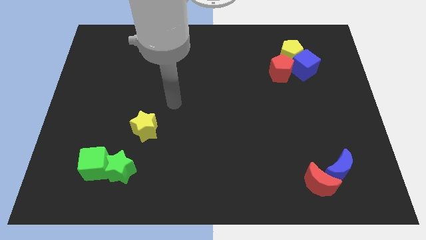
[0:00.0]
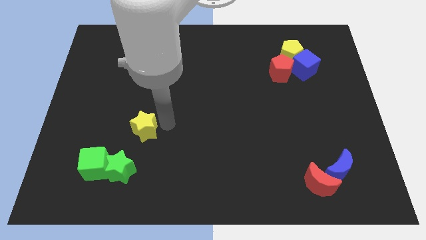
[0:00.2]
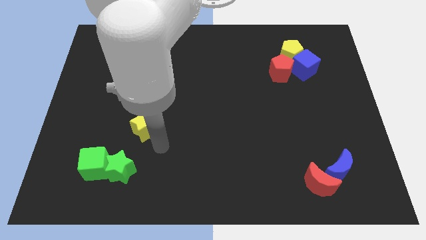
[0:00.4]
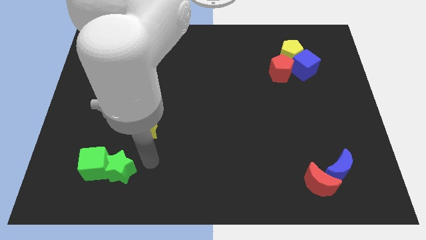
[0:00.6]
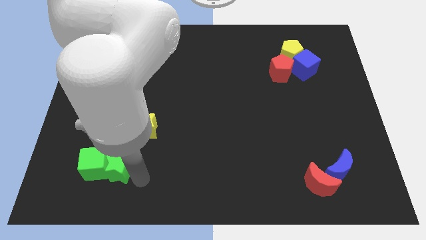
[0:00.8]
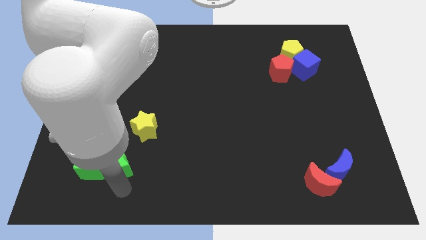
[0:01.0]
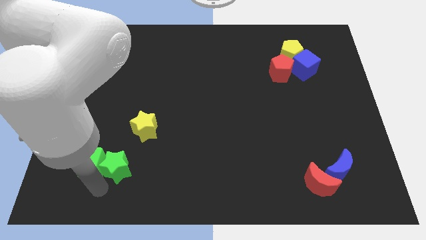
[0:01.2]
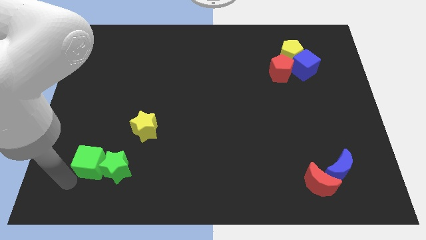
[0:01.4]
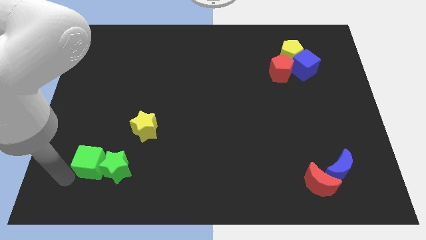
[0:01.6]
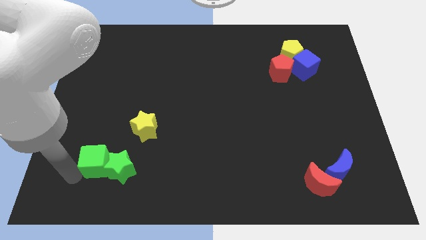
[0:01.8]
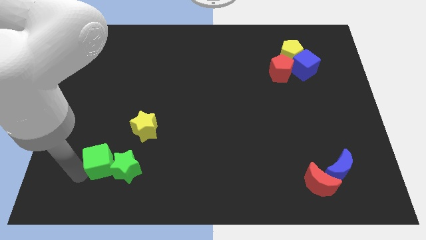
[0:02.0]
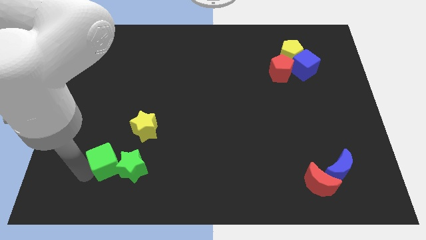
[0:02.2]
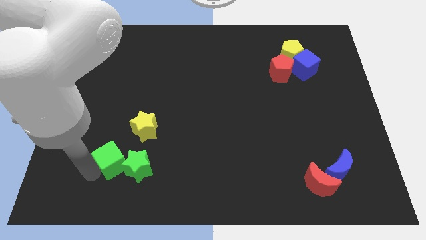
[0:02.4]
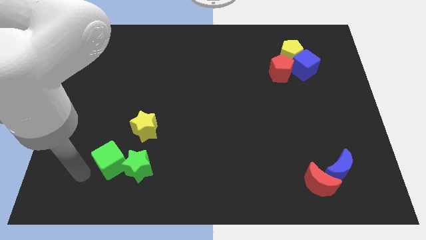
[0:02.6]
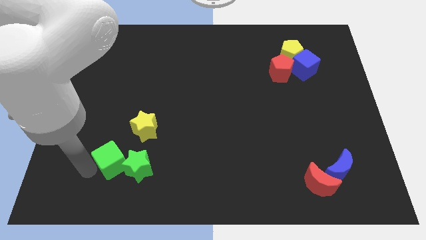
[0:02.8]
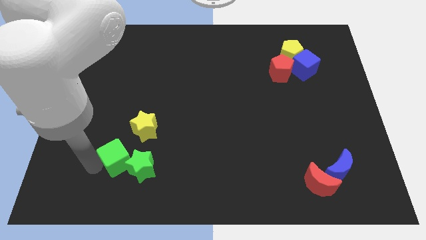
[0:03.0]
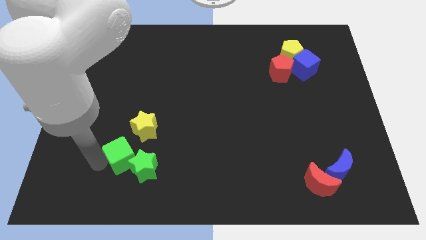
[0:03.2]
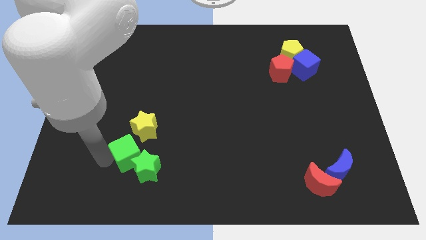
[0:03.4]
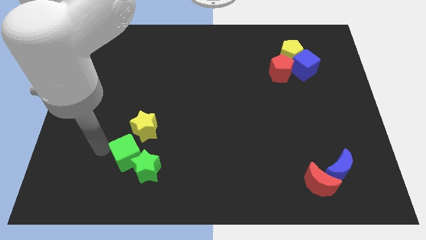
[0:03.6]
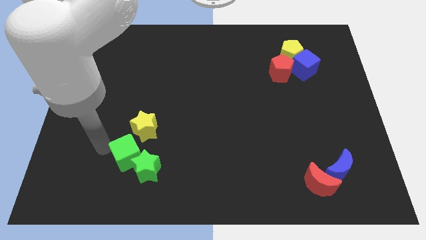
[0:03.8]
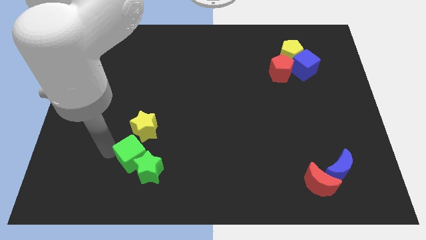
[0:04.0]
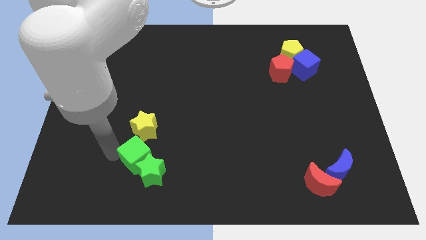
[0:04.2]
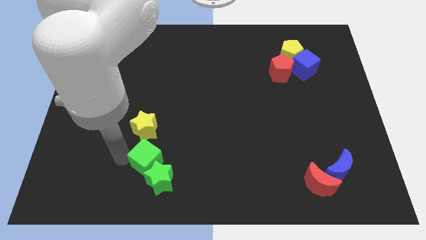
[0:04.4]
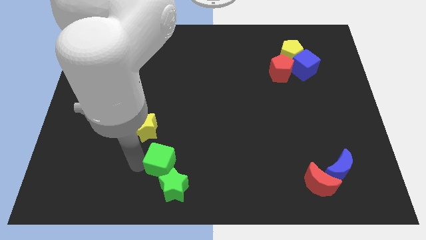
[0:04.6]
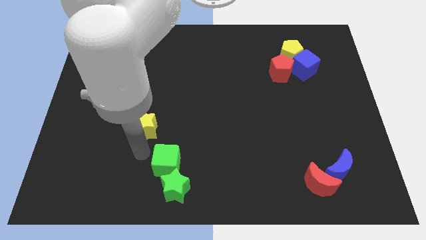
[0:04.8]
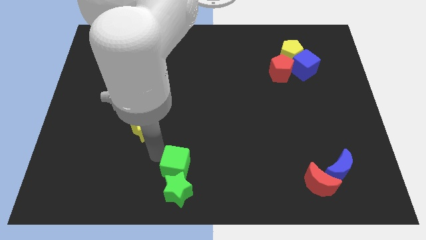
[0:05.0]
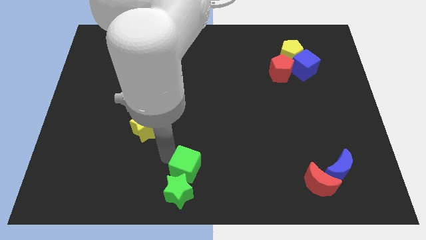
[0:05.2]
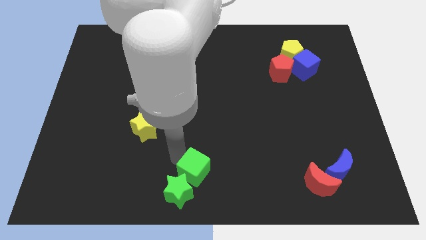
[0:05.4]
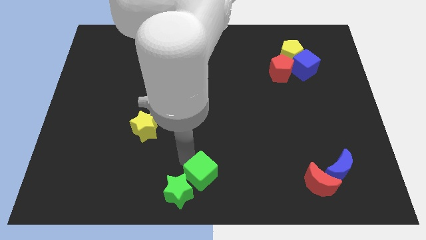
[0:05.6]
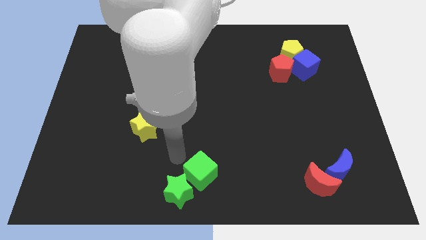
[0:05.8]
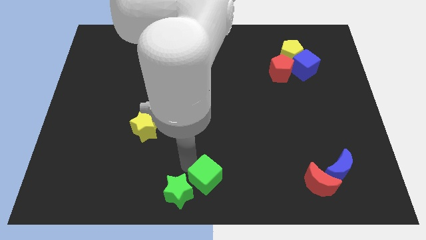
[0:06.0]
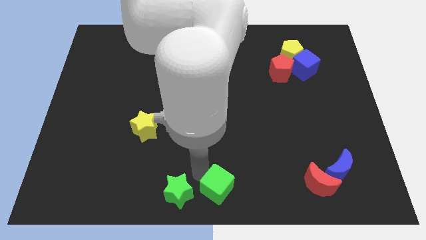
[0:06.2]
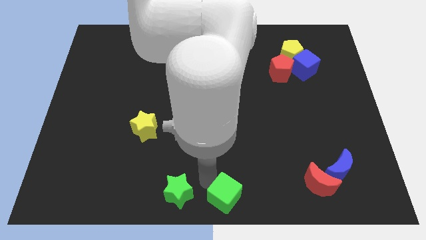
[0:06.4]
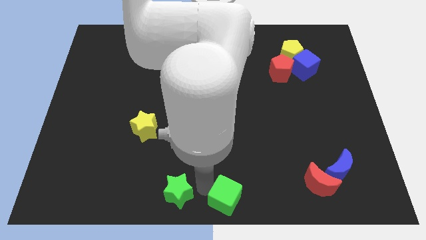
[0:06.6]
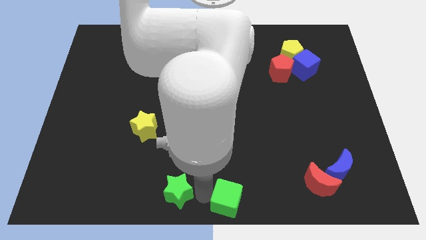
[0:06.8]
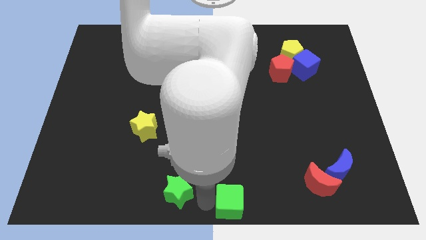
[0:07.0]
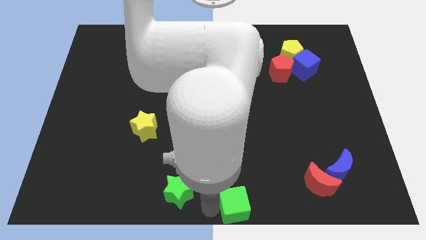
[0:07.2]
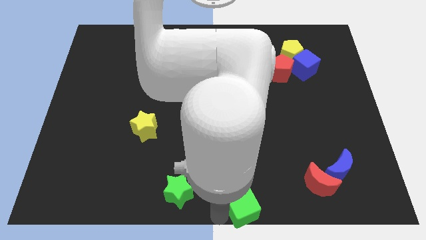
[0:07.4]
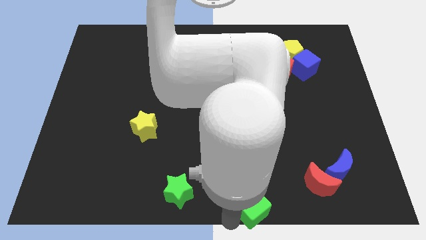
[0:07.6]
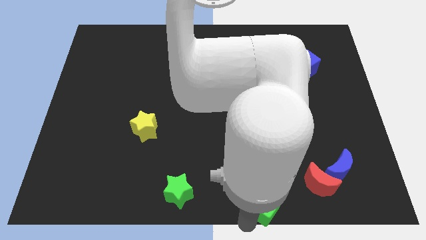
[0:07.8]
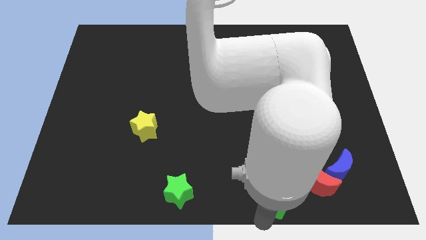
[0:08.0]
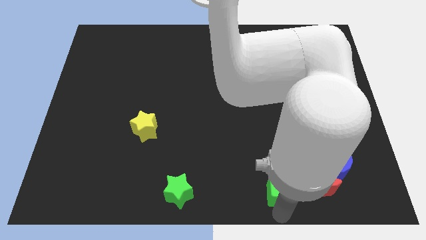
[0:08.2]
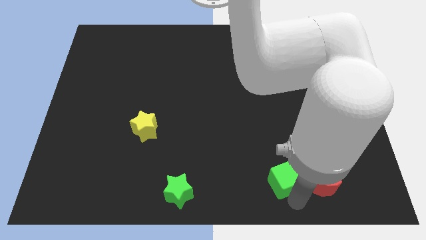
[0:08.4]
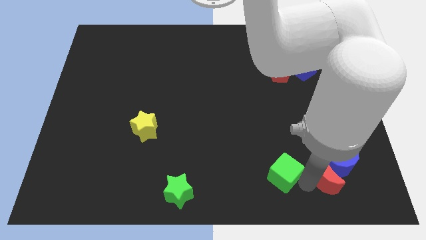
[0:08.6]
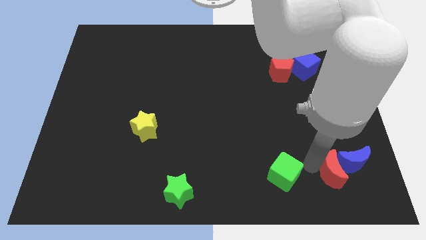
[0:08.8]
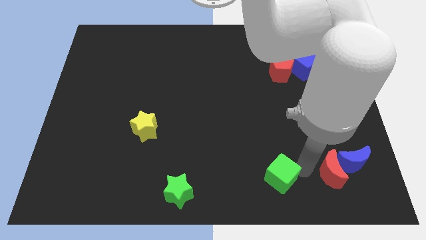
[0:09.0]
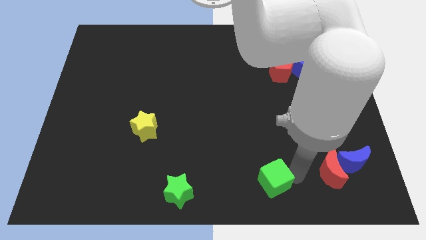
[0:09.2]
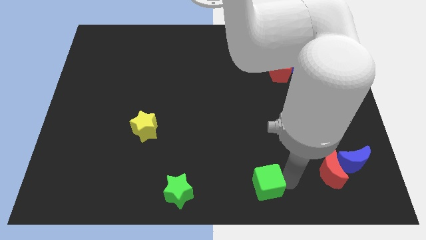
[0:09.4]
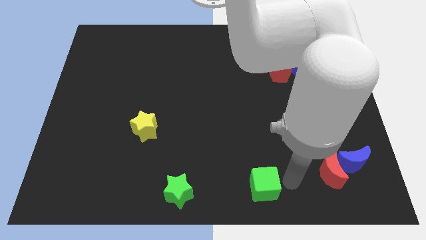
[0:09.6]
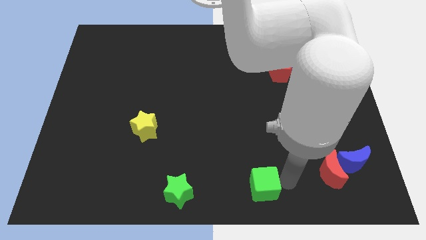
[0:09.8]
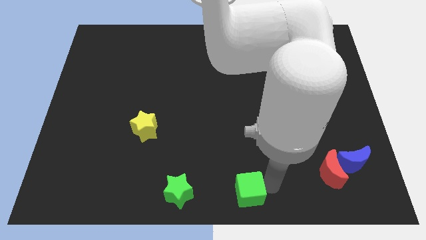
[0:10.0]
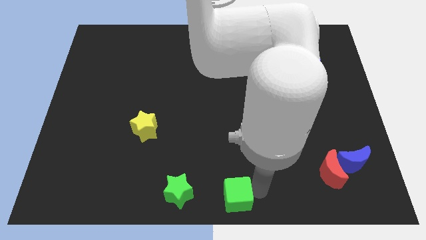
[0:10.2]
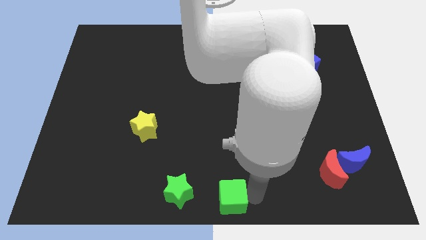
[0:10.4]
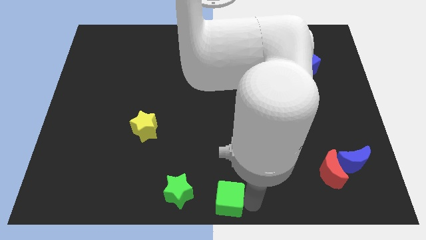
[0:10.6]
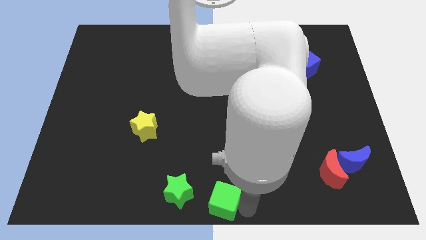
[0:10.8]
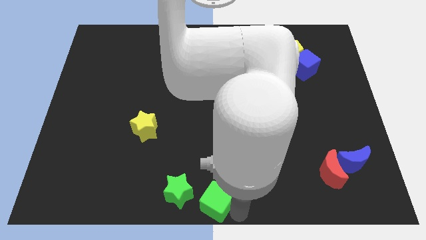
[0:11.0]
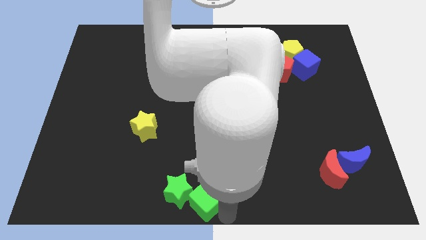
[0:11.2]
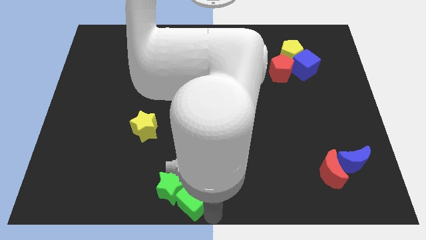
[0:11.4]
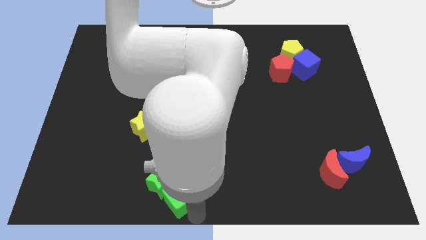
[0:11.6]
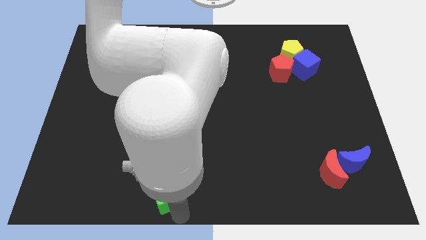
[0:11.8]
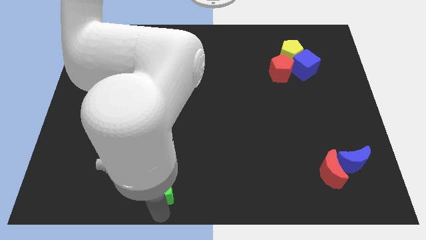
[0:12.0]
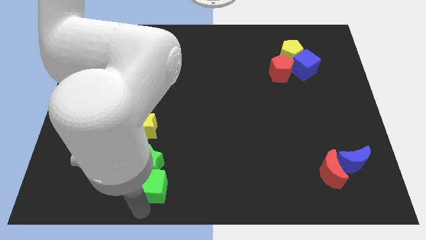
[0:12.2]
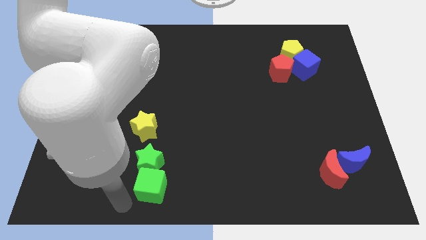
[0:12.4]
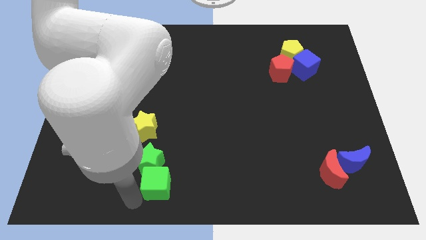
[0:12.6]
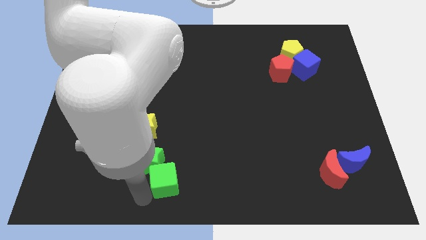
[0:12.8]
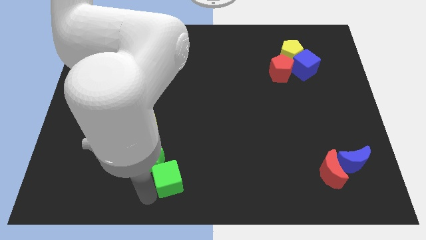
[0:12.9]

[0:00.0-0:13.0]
slide the green cube to the right of the green star
